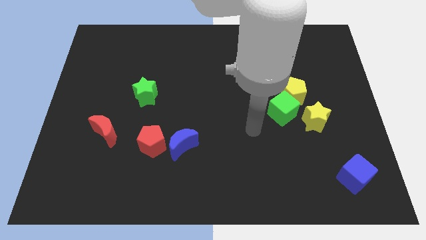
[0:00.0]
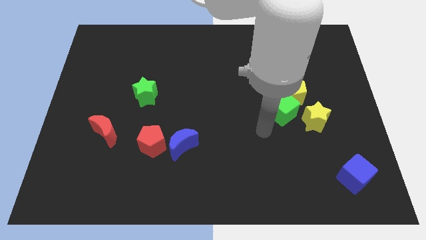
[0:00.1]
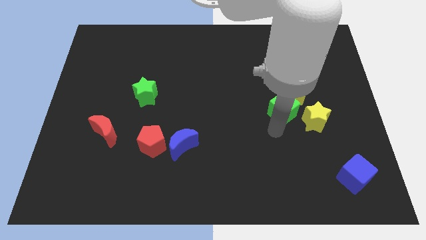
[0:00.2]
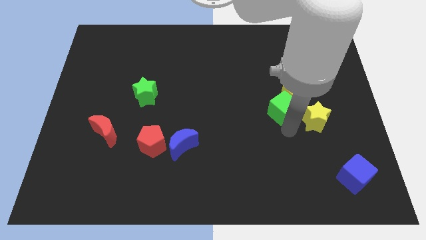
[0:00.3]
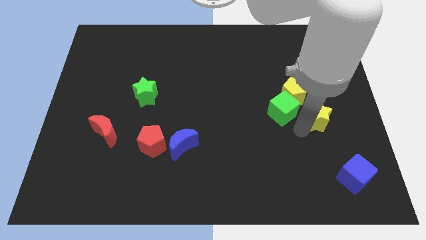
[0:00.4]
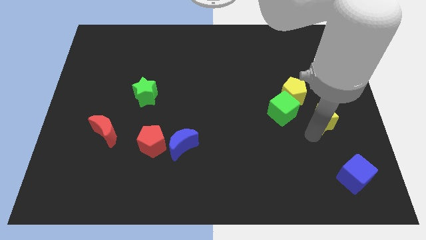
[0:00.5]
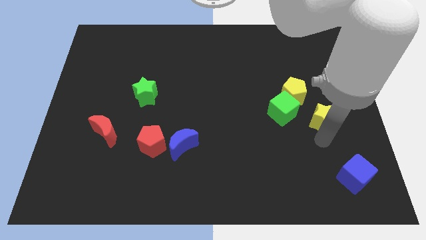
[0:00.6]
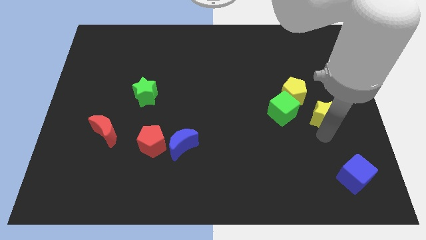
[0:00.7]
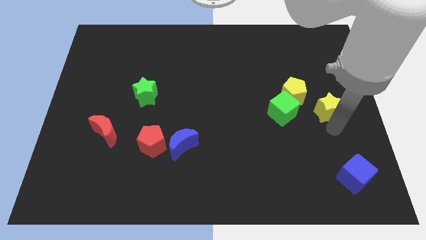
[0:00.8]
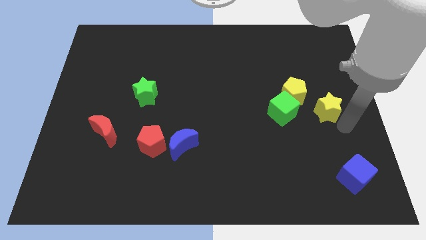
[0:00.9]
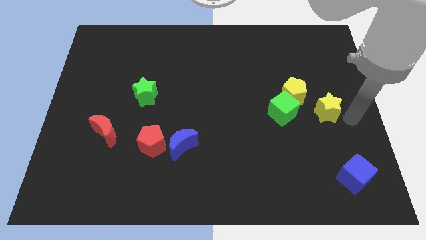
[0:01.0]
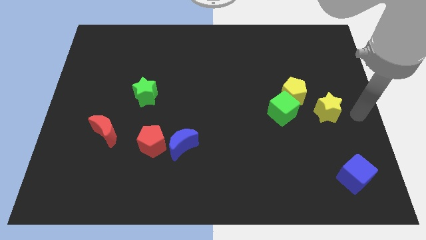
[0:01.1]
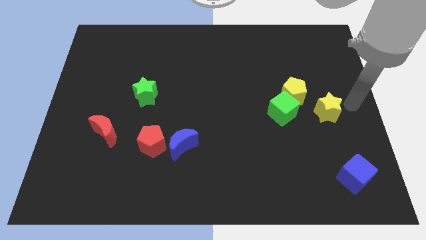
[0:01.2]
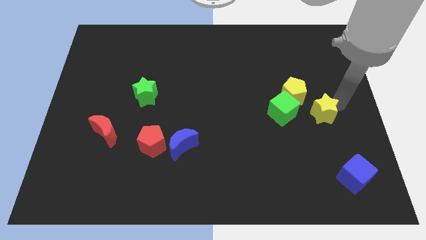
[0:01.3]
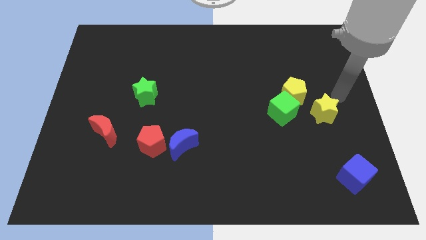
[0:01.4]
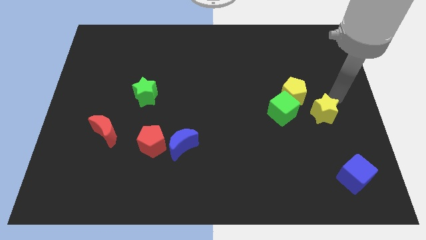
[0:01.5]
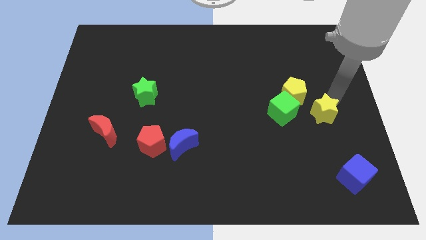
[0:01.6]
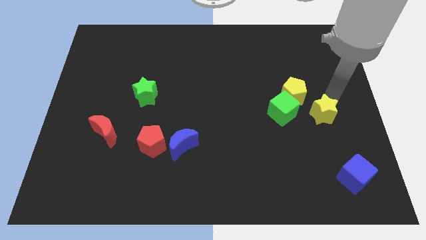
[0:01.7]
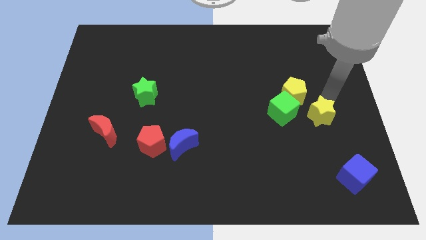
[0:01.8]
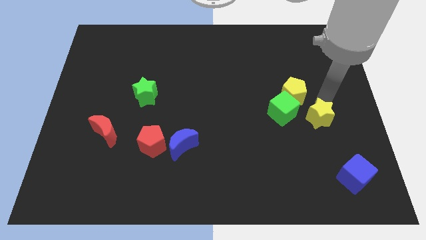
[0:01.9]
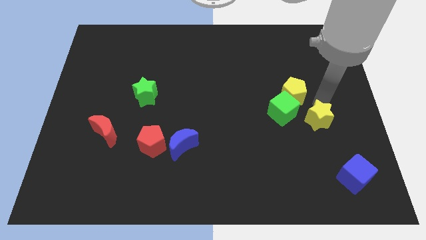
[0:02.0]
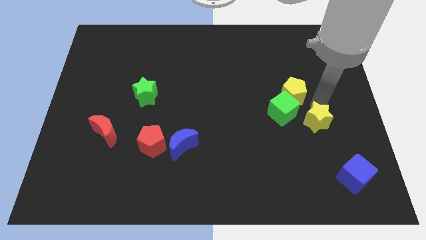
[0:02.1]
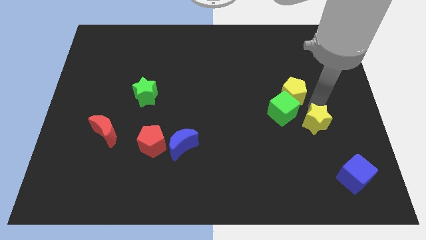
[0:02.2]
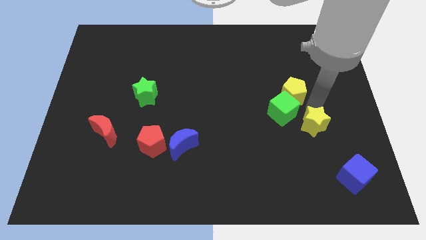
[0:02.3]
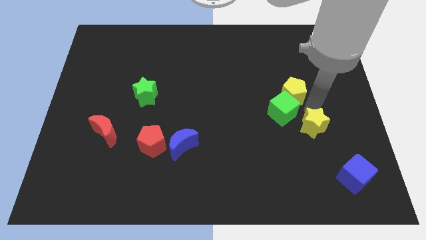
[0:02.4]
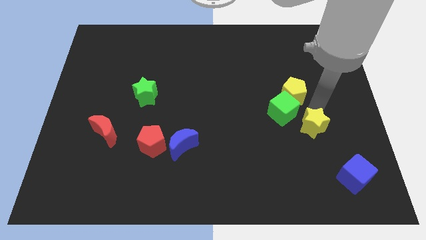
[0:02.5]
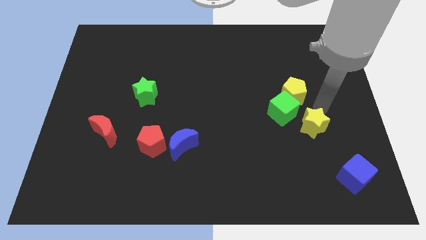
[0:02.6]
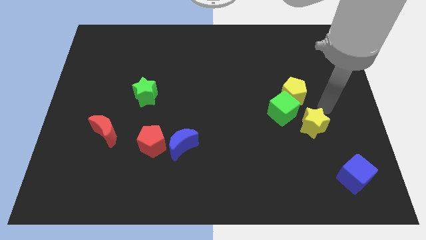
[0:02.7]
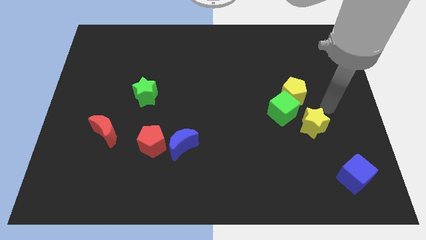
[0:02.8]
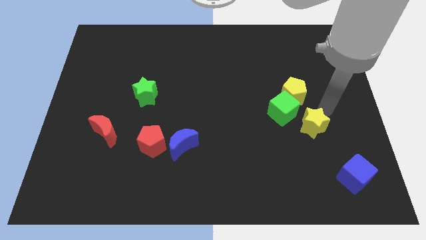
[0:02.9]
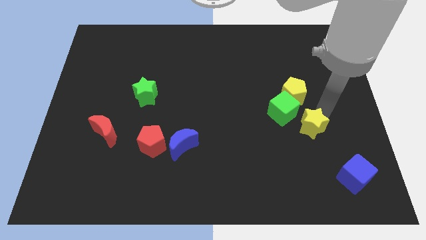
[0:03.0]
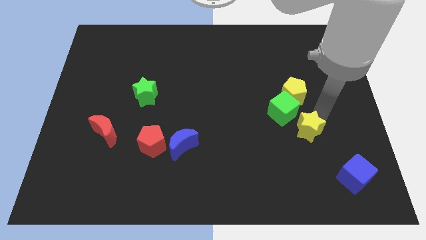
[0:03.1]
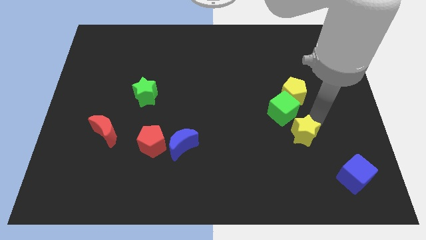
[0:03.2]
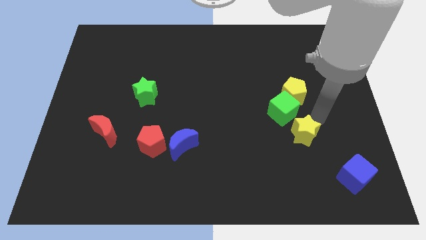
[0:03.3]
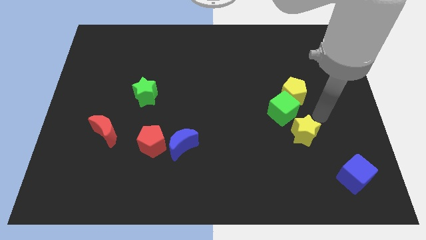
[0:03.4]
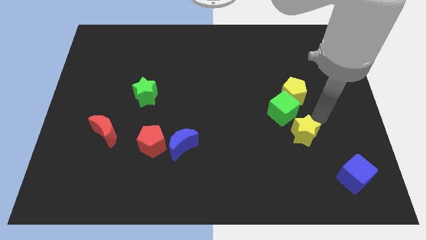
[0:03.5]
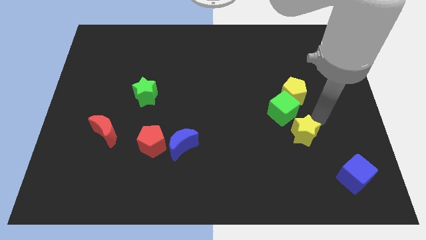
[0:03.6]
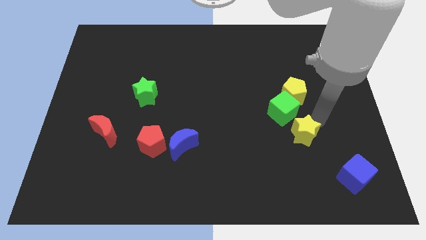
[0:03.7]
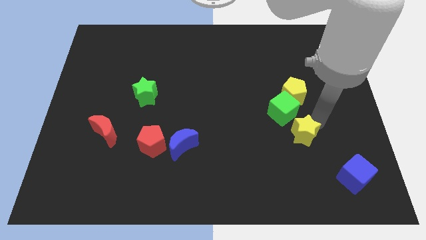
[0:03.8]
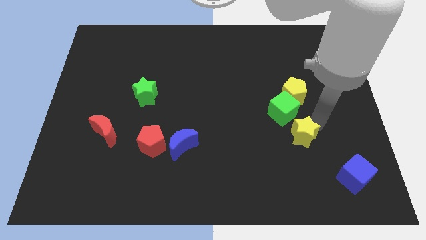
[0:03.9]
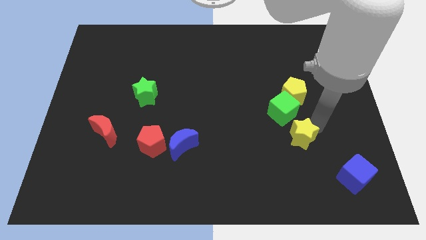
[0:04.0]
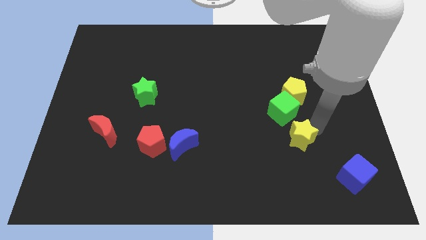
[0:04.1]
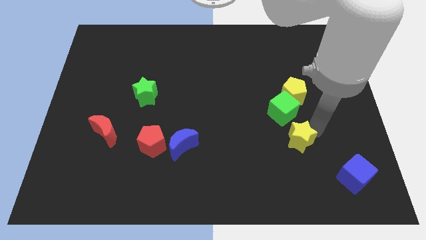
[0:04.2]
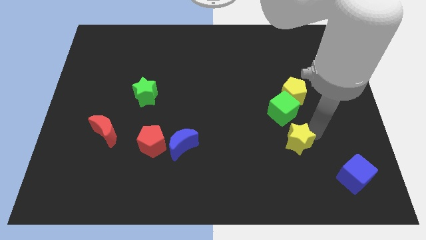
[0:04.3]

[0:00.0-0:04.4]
move the yellow star somewhat down and to the left

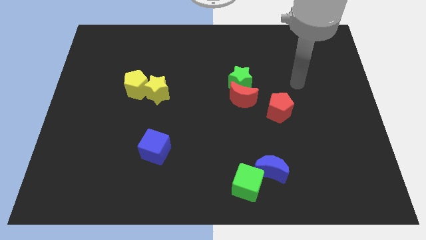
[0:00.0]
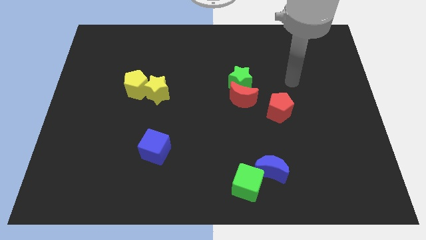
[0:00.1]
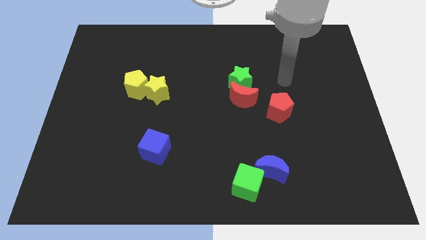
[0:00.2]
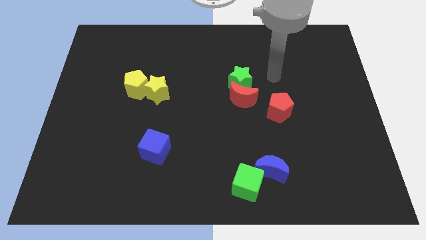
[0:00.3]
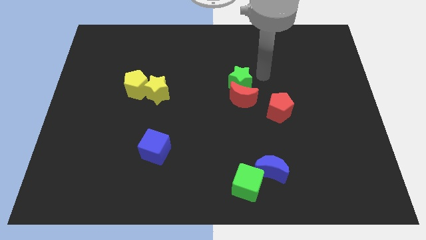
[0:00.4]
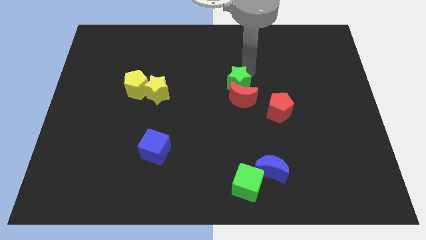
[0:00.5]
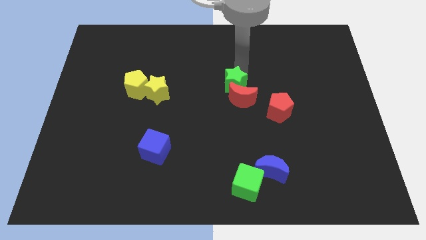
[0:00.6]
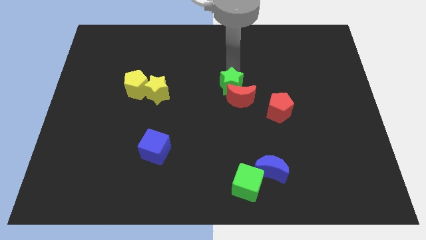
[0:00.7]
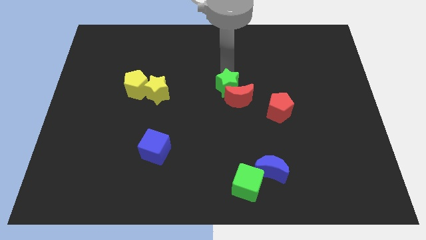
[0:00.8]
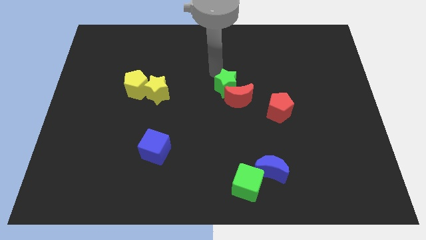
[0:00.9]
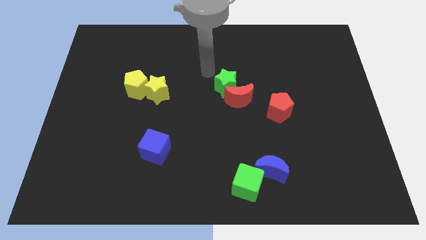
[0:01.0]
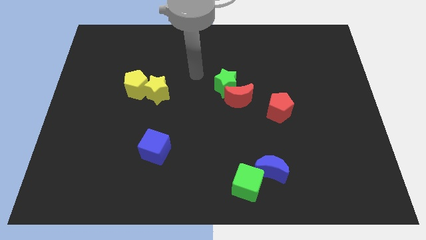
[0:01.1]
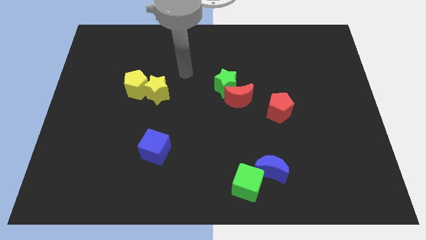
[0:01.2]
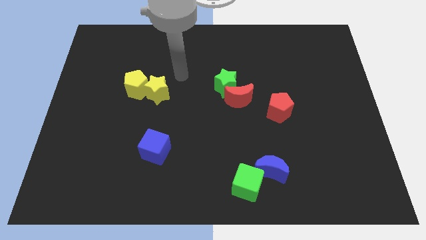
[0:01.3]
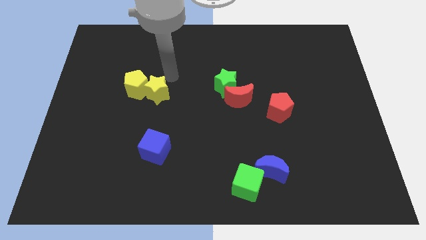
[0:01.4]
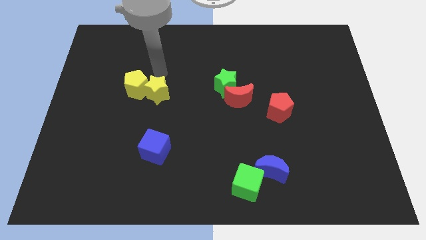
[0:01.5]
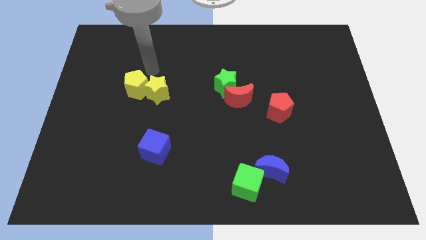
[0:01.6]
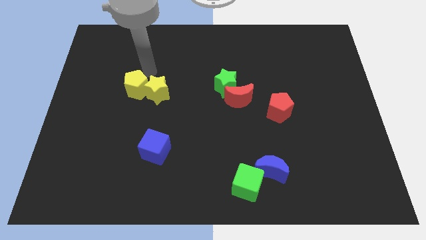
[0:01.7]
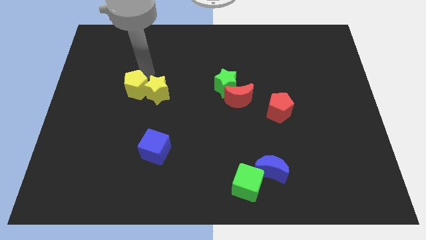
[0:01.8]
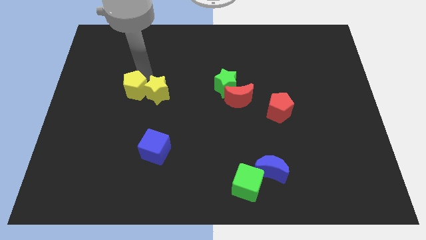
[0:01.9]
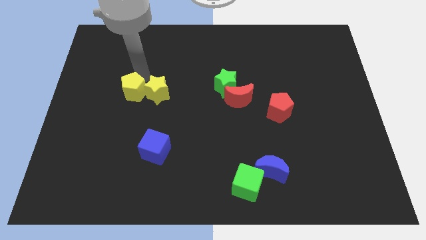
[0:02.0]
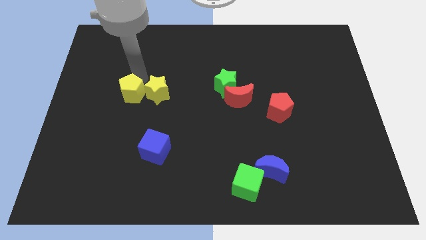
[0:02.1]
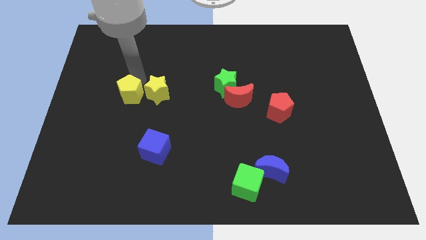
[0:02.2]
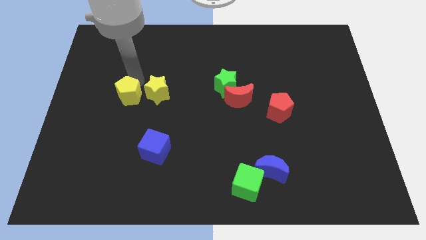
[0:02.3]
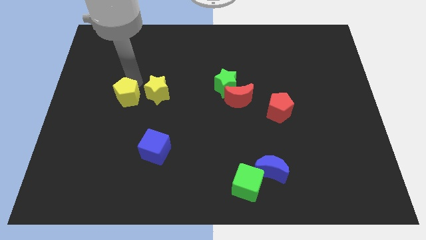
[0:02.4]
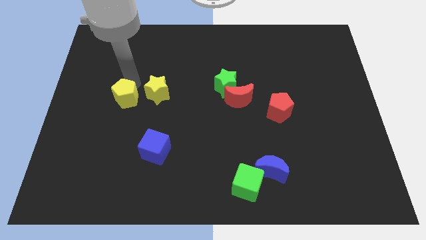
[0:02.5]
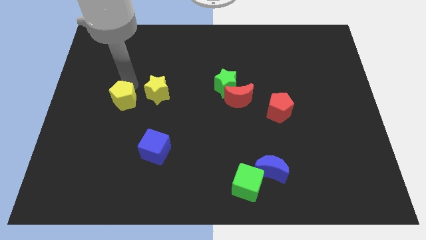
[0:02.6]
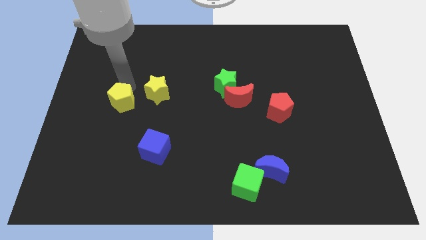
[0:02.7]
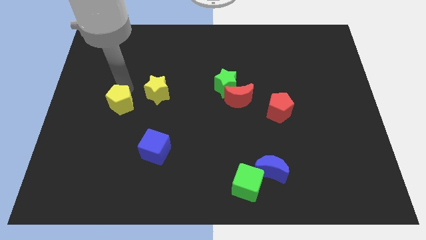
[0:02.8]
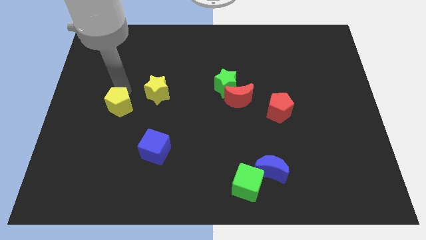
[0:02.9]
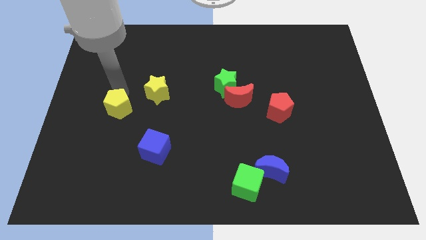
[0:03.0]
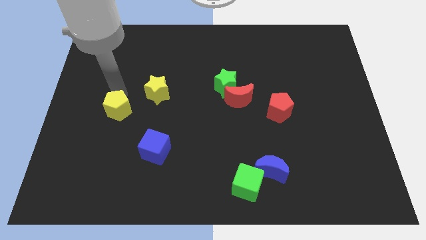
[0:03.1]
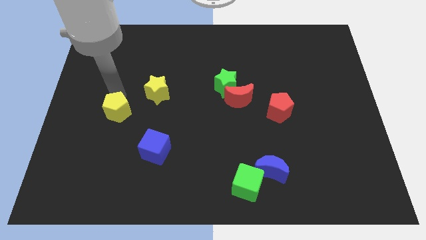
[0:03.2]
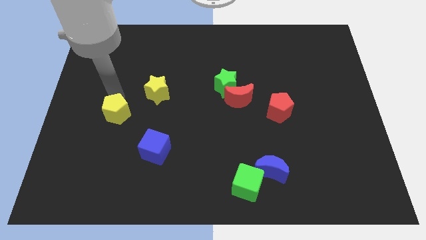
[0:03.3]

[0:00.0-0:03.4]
push the yellow pentagon down slightly

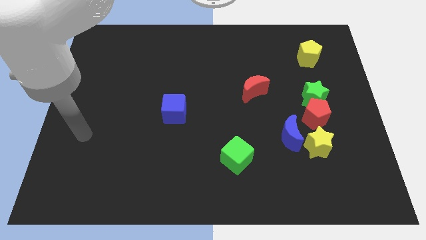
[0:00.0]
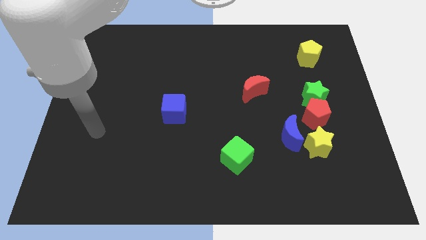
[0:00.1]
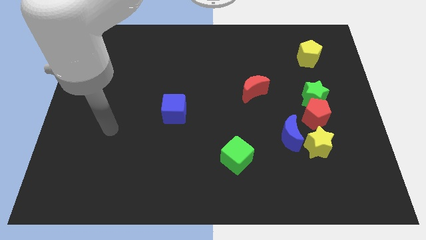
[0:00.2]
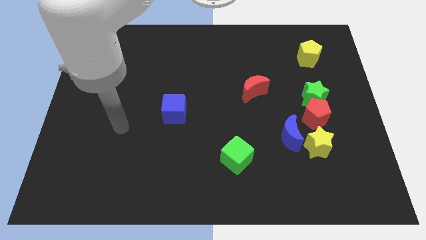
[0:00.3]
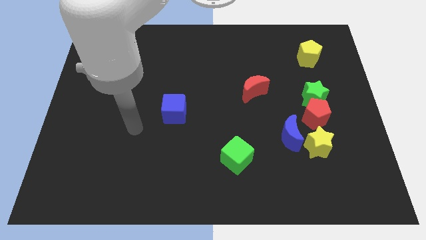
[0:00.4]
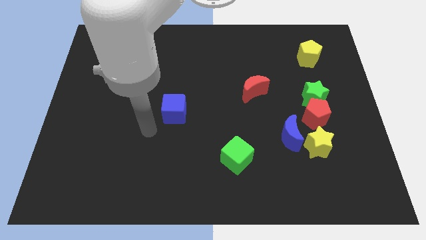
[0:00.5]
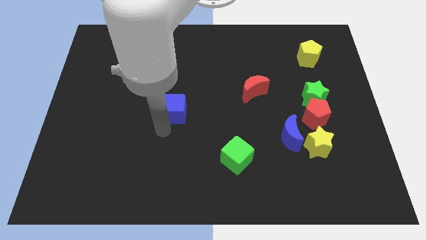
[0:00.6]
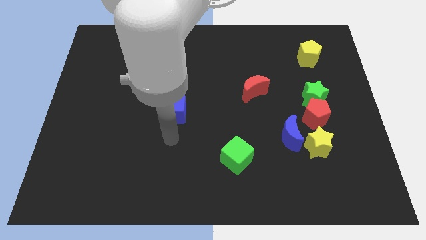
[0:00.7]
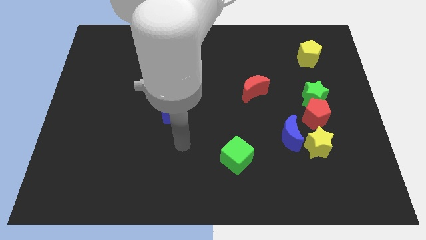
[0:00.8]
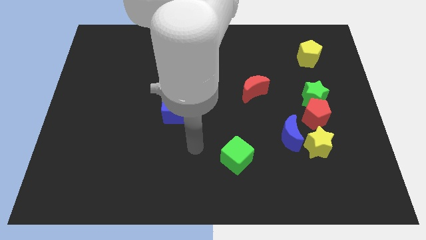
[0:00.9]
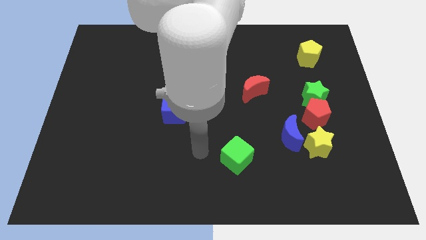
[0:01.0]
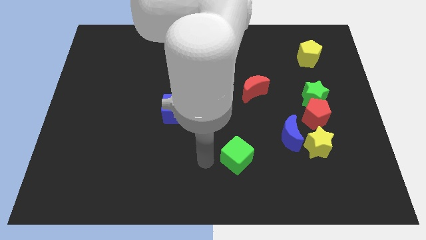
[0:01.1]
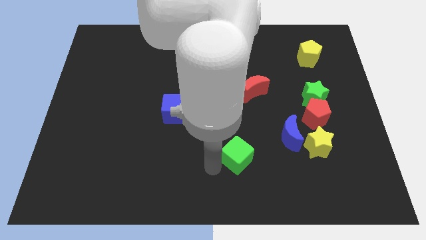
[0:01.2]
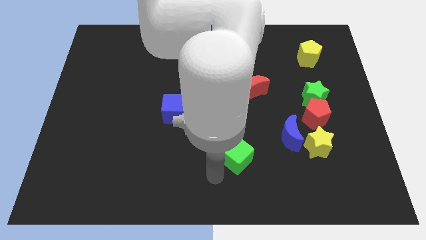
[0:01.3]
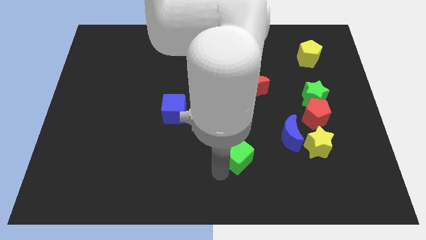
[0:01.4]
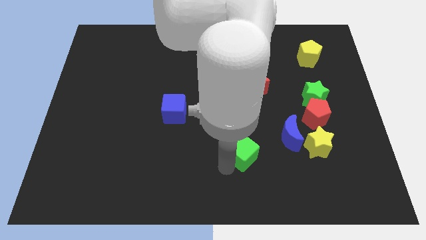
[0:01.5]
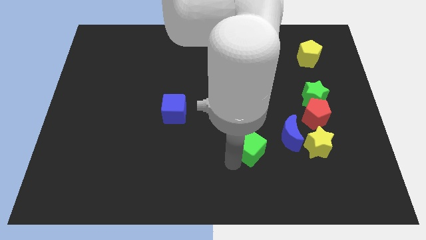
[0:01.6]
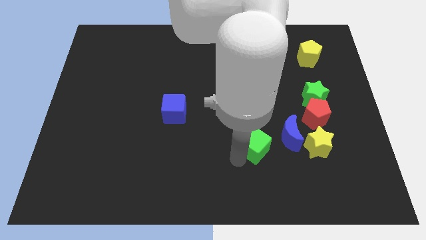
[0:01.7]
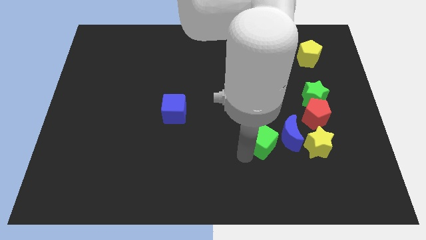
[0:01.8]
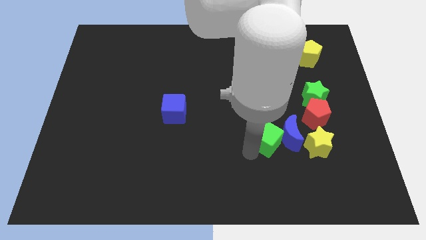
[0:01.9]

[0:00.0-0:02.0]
slide the green cube a little upwards and to the right
